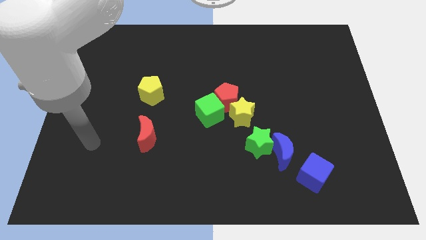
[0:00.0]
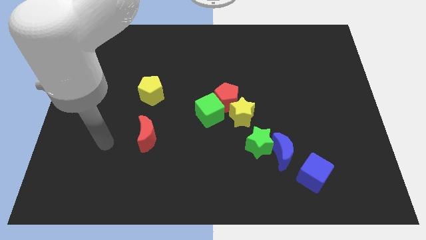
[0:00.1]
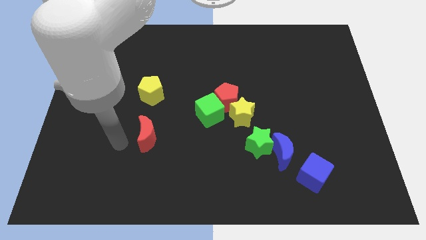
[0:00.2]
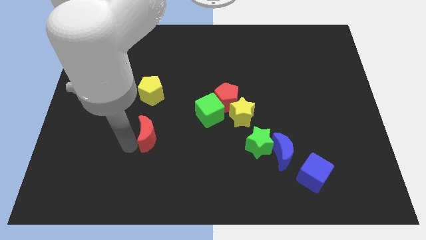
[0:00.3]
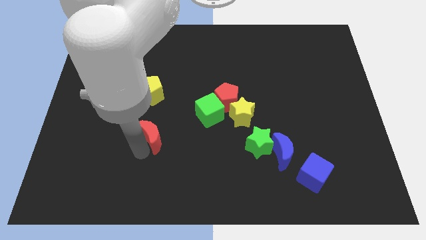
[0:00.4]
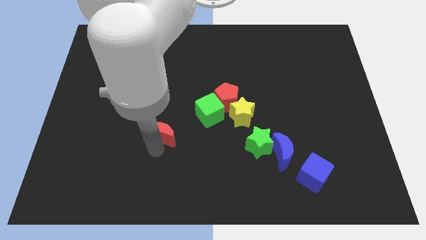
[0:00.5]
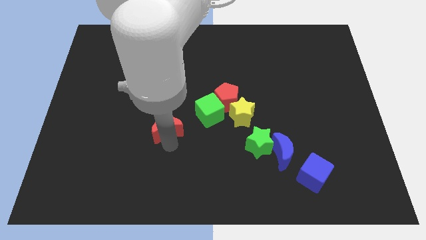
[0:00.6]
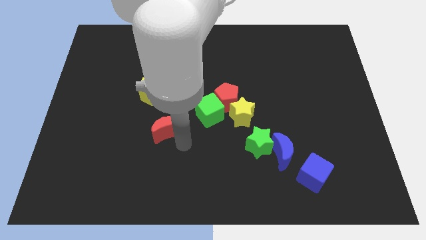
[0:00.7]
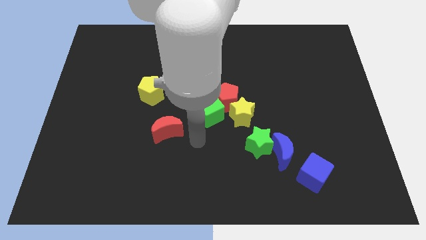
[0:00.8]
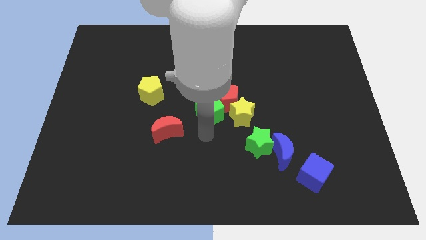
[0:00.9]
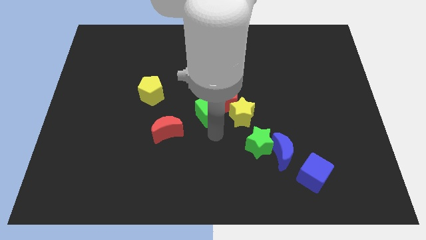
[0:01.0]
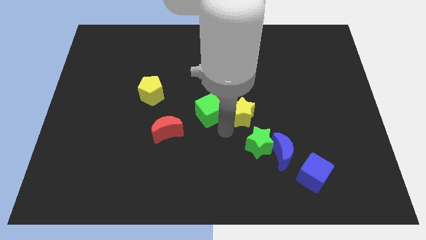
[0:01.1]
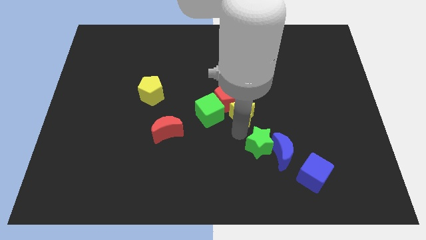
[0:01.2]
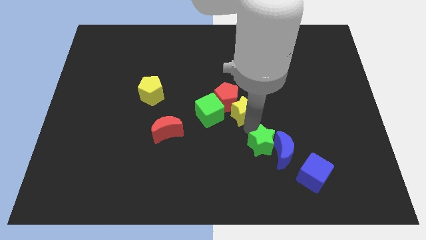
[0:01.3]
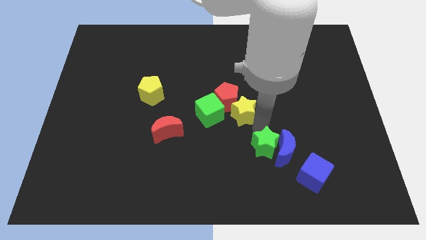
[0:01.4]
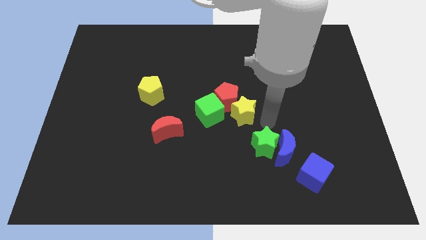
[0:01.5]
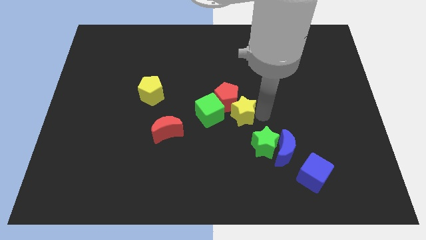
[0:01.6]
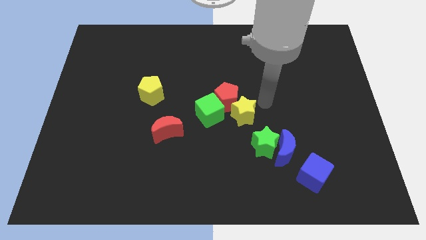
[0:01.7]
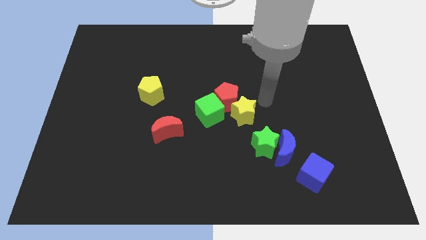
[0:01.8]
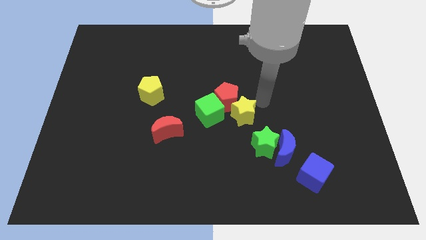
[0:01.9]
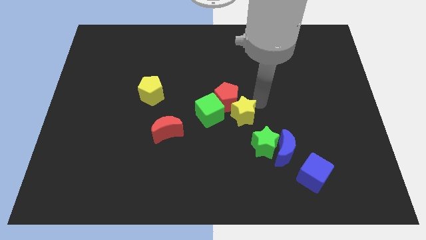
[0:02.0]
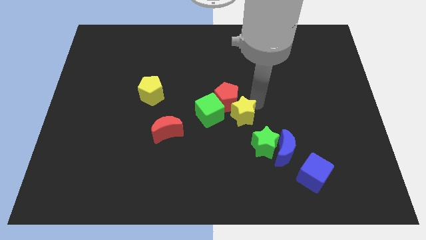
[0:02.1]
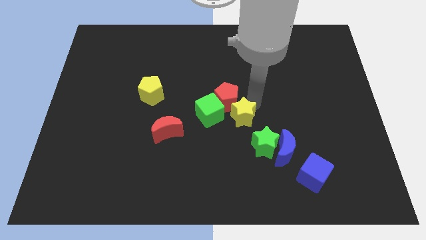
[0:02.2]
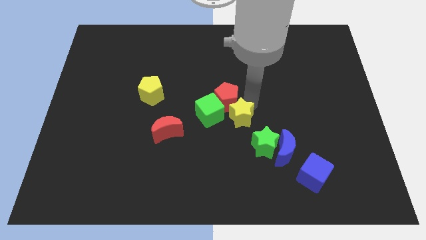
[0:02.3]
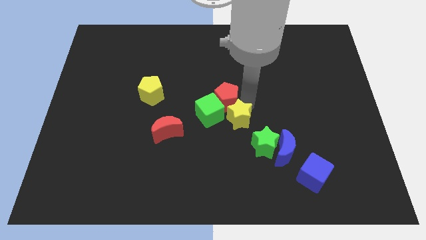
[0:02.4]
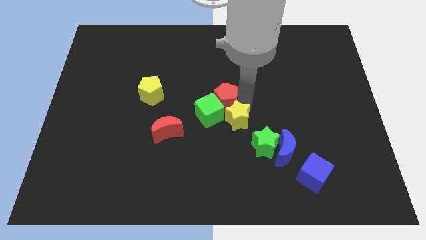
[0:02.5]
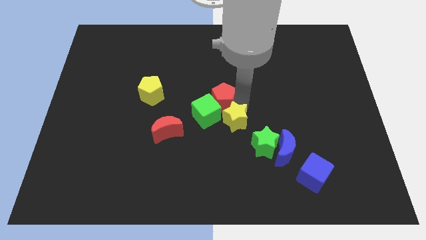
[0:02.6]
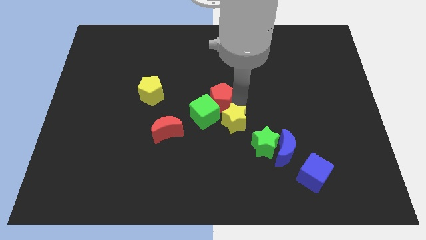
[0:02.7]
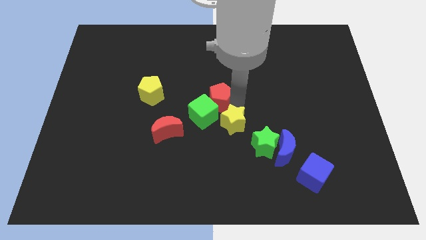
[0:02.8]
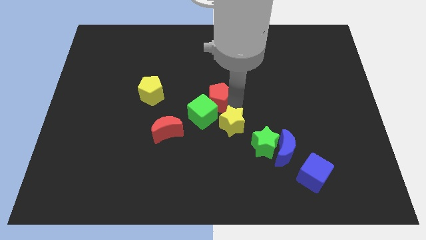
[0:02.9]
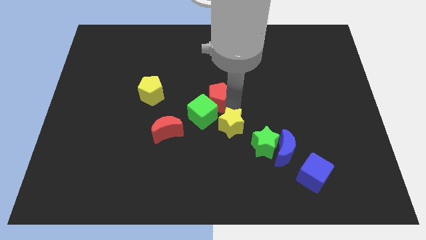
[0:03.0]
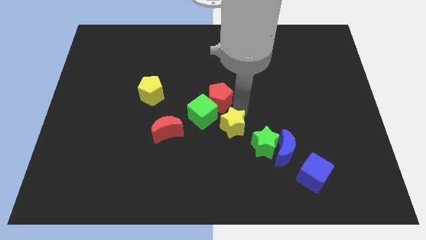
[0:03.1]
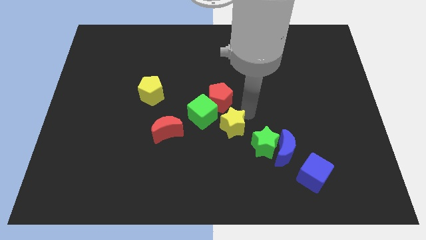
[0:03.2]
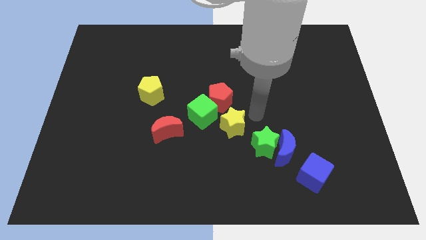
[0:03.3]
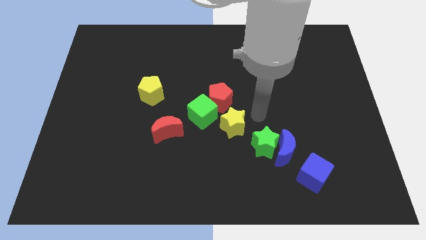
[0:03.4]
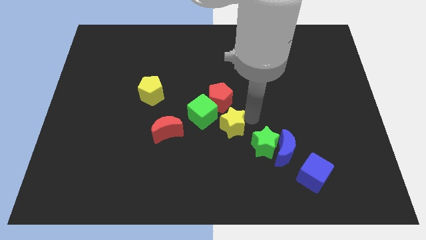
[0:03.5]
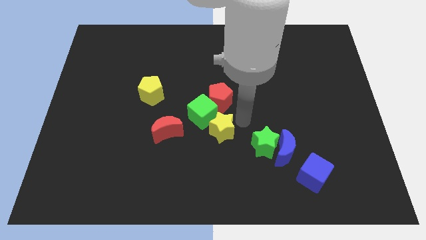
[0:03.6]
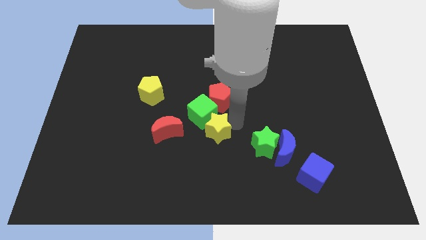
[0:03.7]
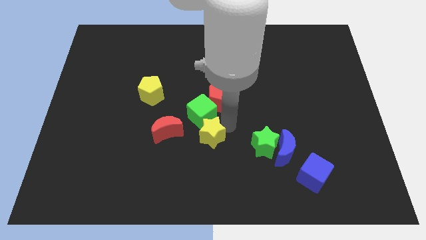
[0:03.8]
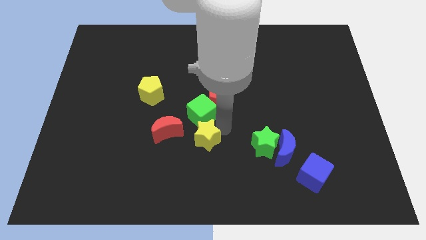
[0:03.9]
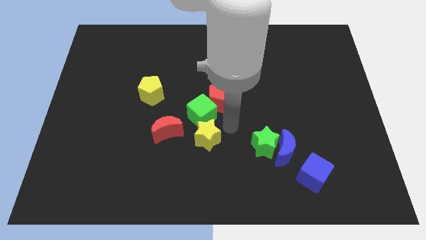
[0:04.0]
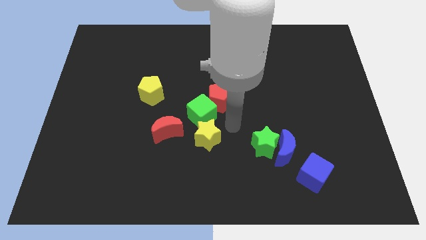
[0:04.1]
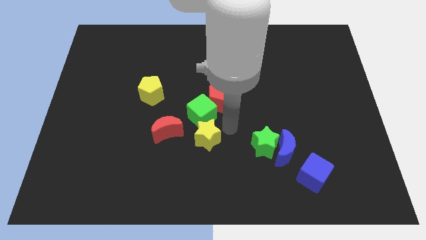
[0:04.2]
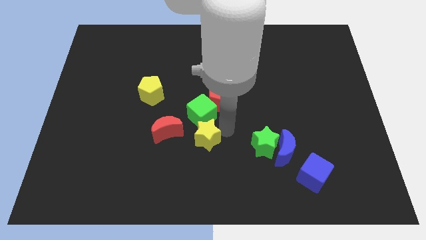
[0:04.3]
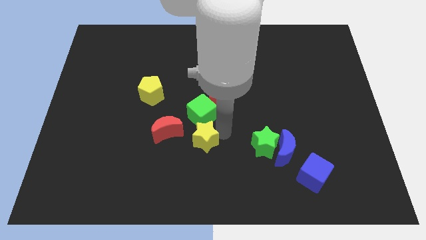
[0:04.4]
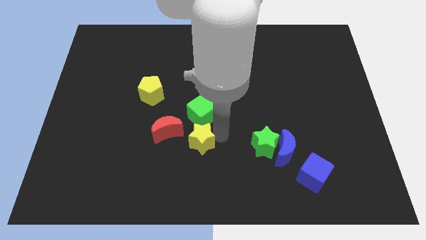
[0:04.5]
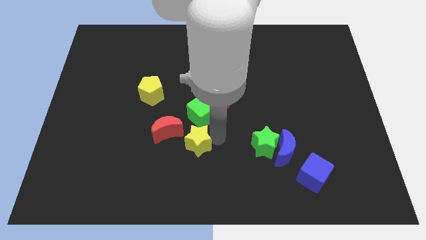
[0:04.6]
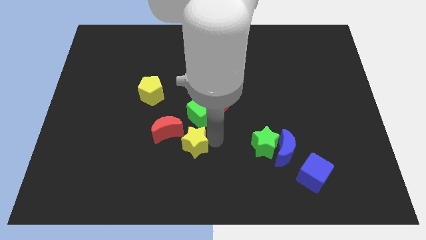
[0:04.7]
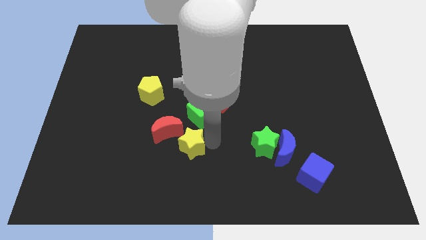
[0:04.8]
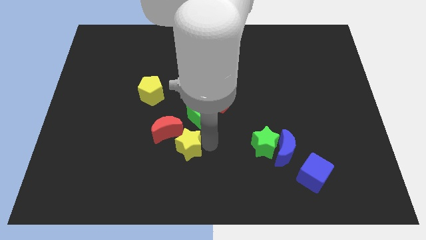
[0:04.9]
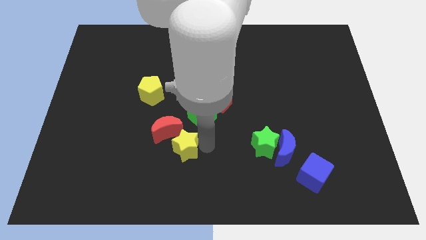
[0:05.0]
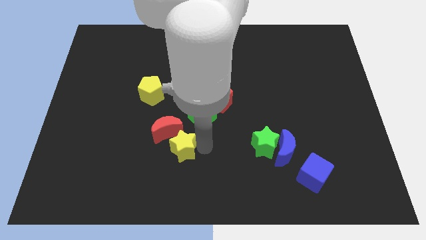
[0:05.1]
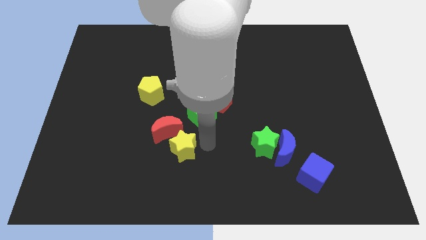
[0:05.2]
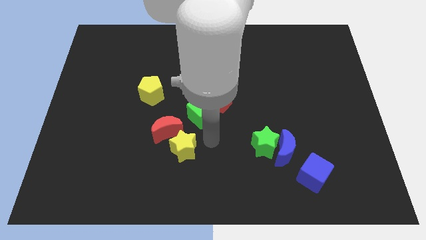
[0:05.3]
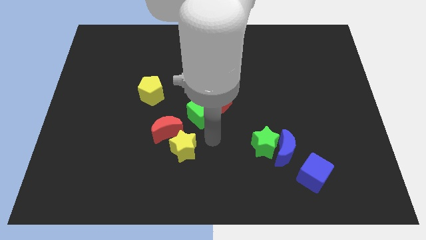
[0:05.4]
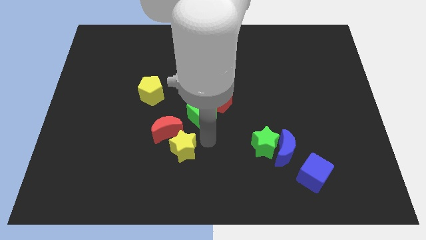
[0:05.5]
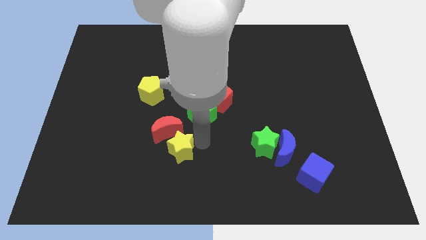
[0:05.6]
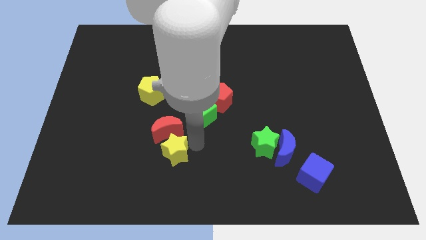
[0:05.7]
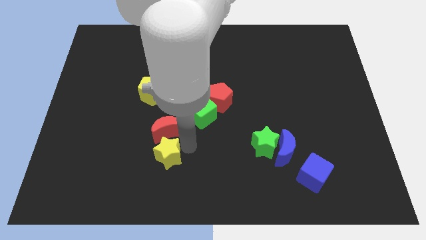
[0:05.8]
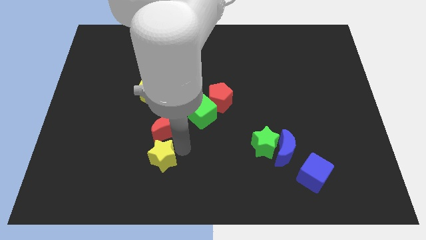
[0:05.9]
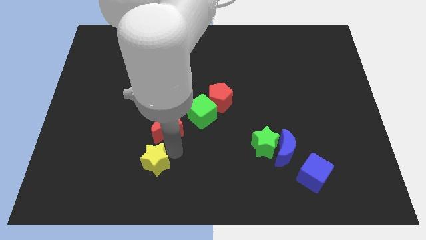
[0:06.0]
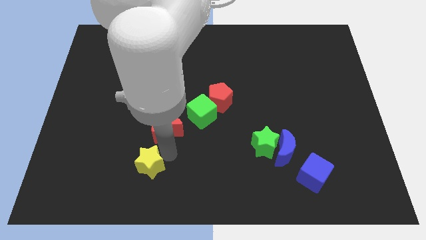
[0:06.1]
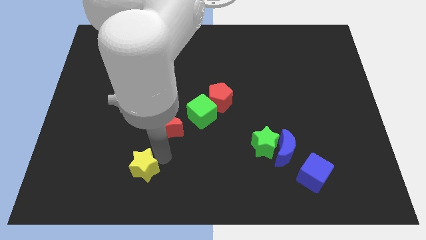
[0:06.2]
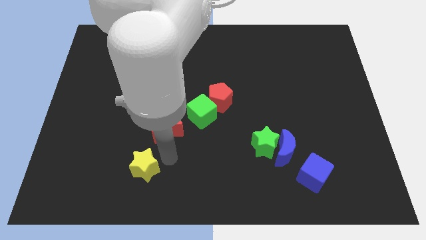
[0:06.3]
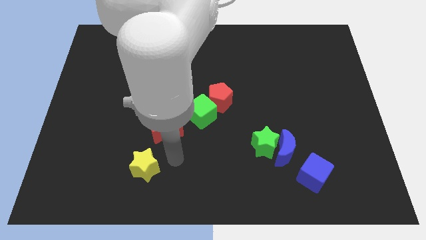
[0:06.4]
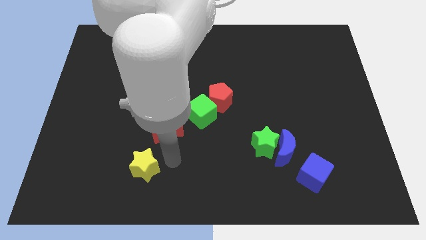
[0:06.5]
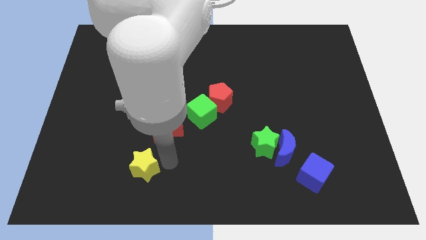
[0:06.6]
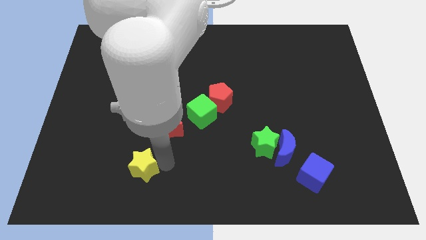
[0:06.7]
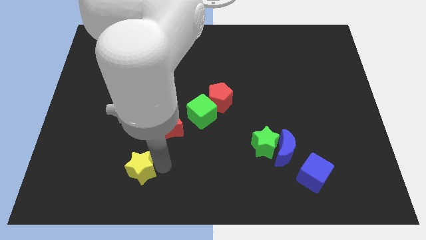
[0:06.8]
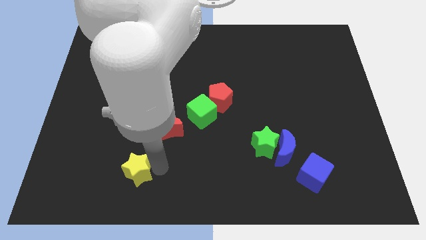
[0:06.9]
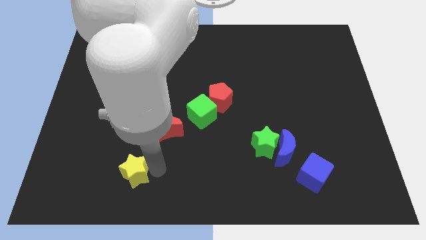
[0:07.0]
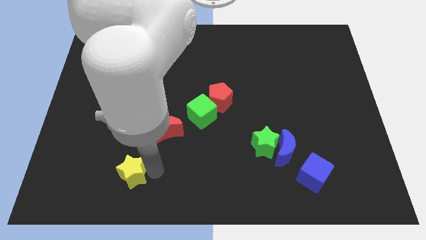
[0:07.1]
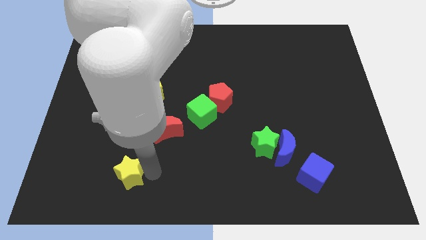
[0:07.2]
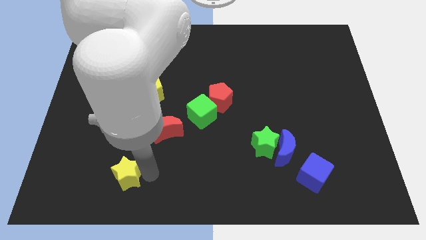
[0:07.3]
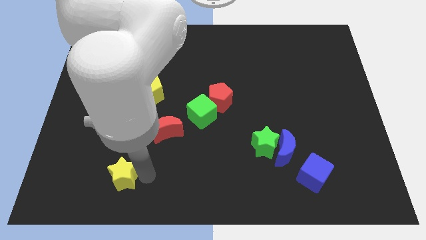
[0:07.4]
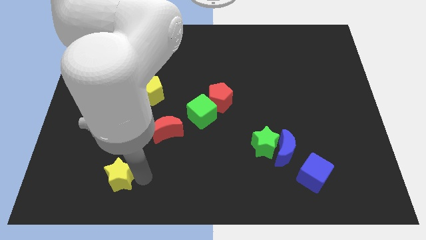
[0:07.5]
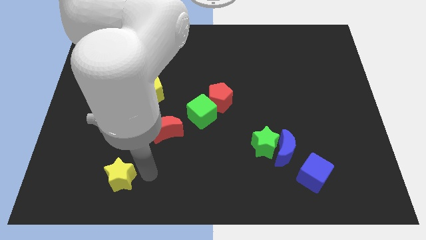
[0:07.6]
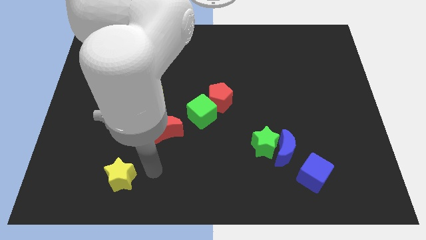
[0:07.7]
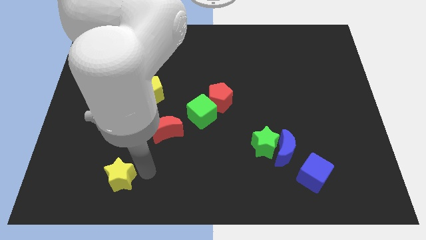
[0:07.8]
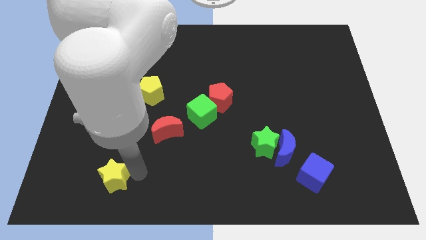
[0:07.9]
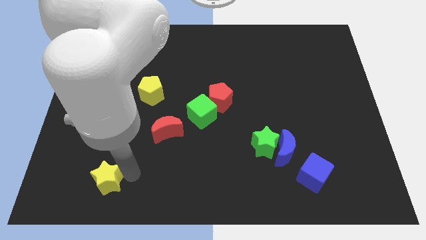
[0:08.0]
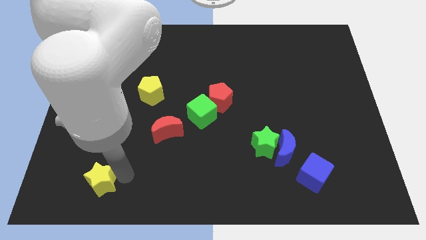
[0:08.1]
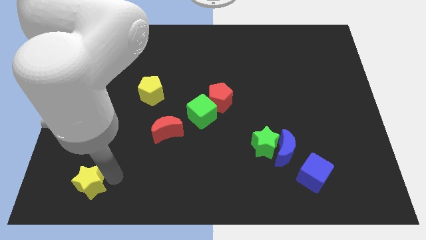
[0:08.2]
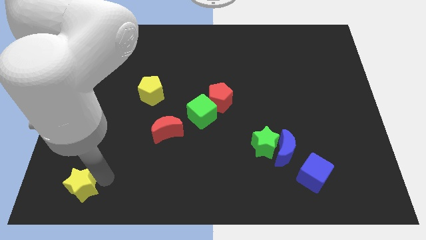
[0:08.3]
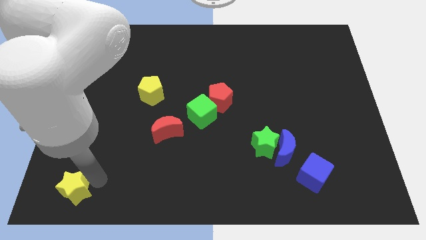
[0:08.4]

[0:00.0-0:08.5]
push the yellow star to the bottom left
